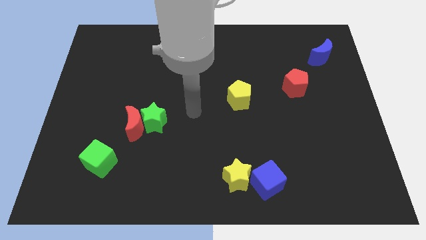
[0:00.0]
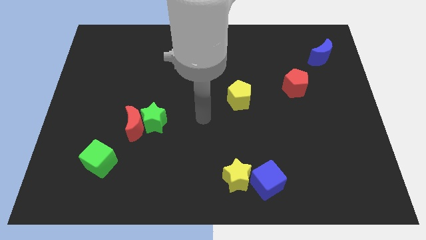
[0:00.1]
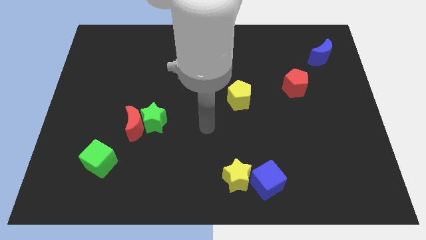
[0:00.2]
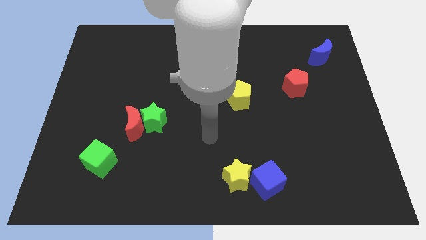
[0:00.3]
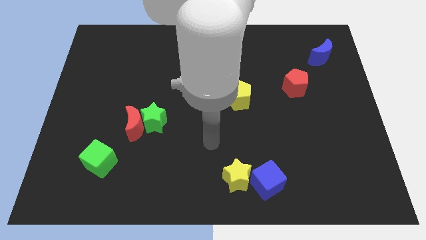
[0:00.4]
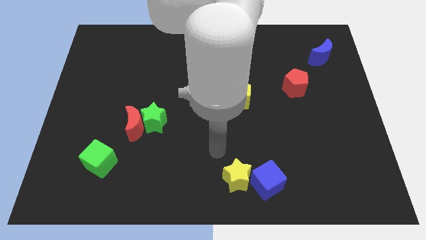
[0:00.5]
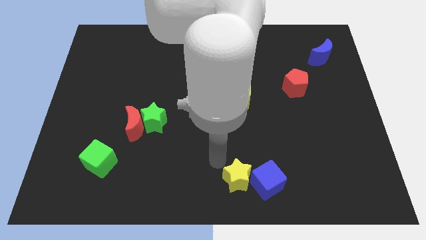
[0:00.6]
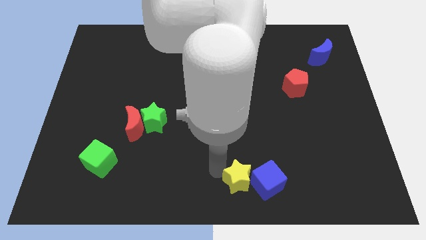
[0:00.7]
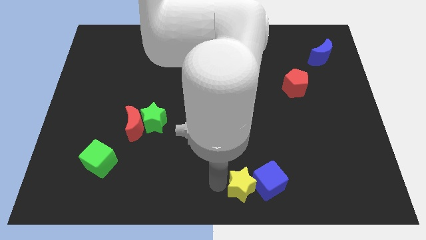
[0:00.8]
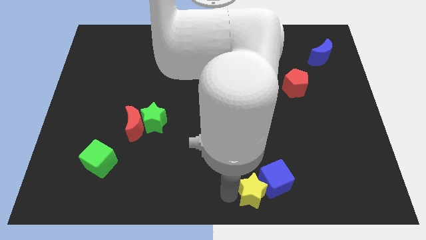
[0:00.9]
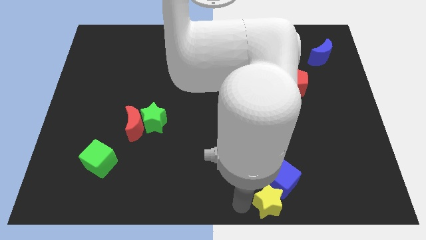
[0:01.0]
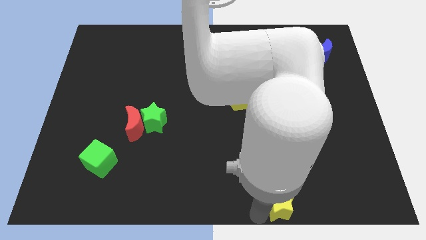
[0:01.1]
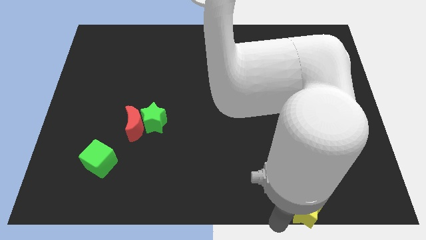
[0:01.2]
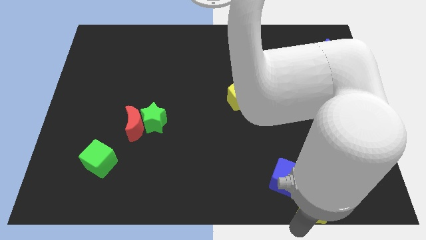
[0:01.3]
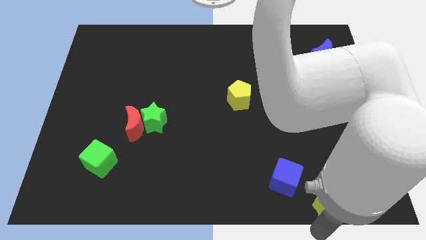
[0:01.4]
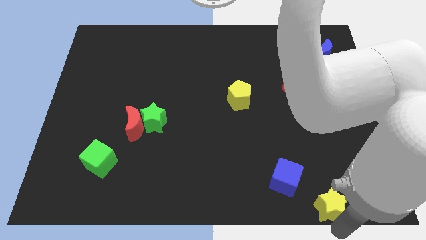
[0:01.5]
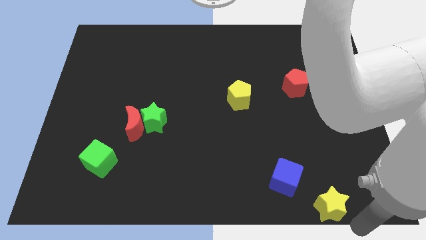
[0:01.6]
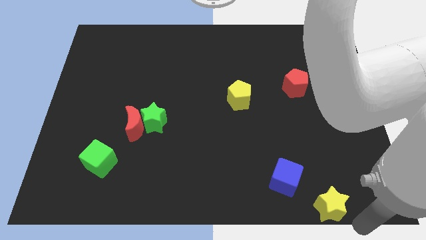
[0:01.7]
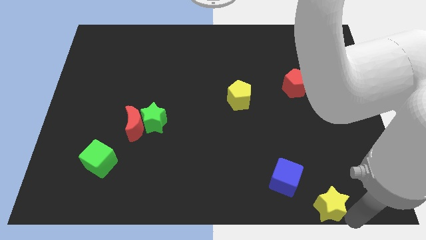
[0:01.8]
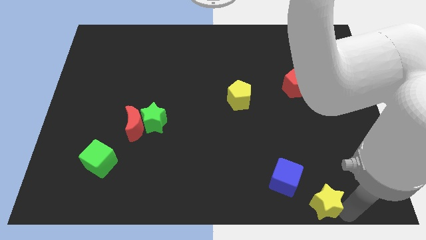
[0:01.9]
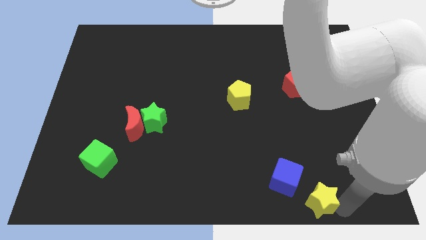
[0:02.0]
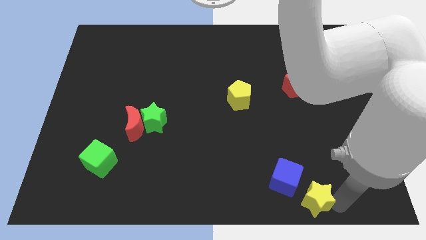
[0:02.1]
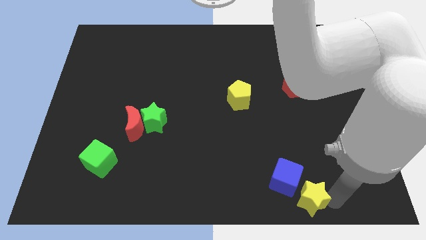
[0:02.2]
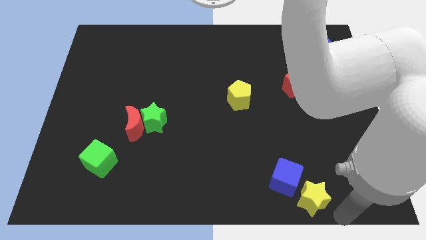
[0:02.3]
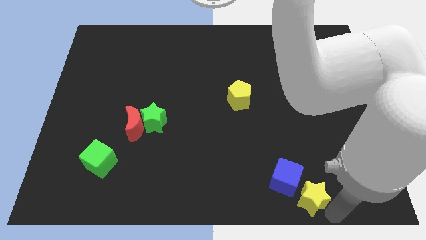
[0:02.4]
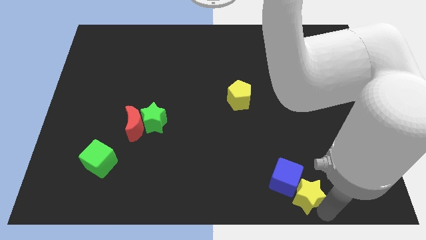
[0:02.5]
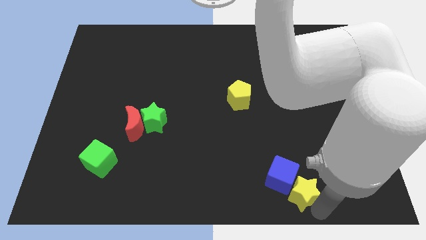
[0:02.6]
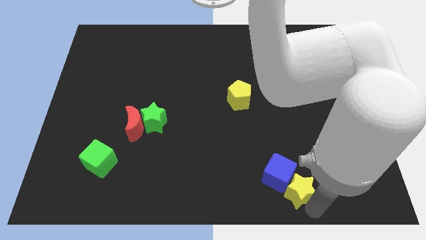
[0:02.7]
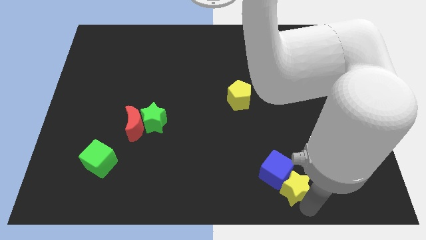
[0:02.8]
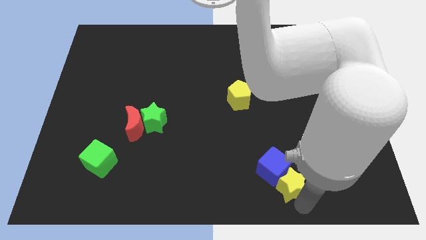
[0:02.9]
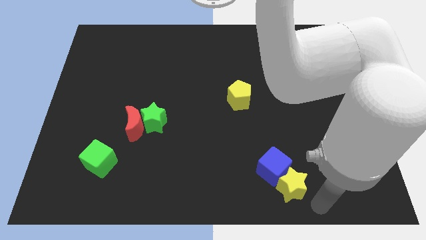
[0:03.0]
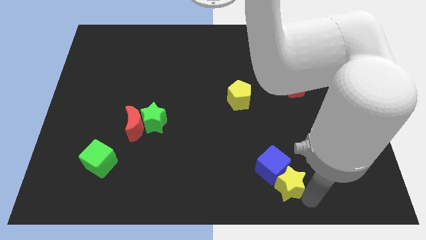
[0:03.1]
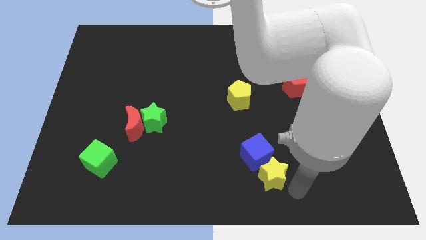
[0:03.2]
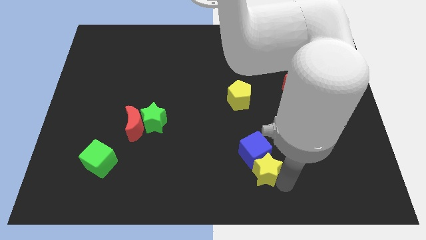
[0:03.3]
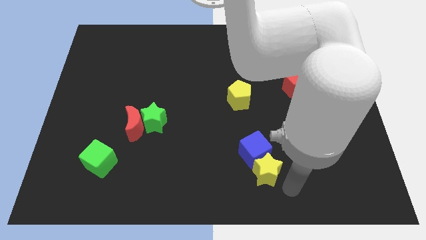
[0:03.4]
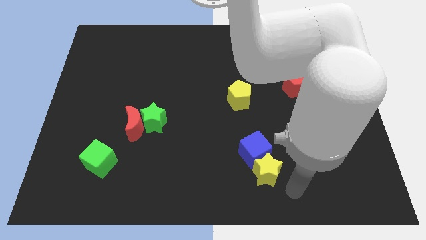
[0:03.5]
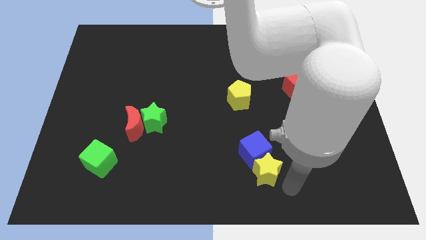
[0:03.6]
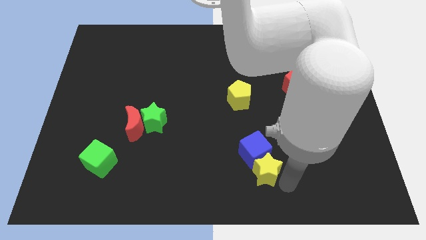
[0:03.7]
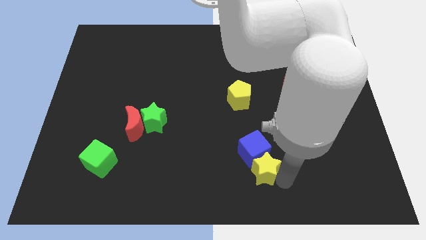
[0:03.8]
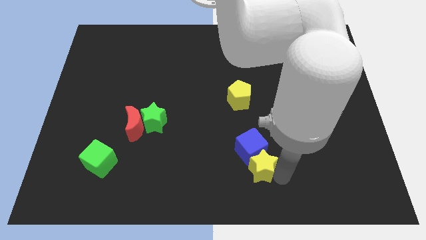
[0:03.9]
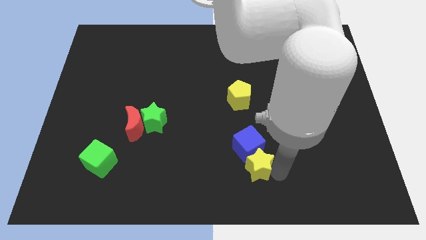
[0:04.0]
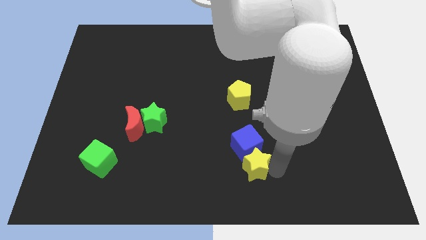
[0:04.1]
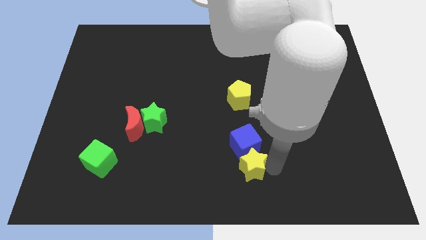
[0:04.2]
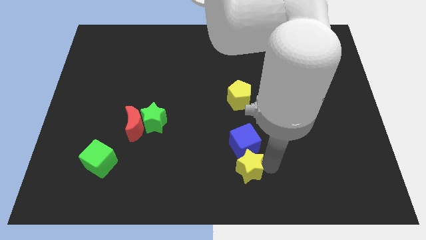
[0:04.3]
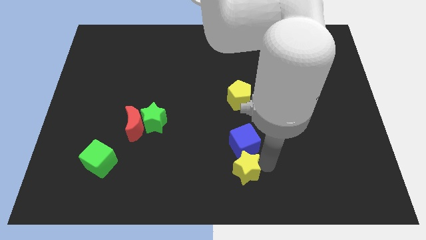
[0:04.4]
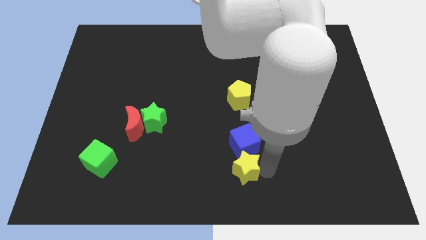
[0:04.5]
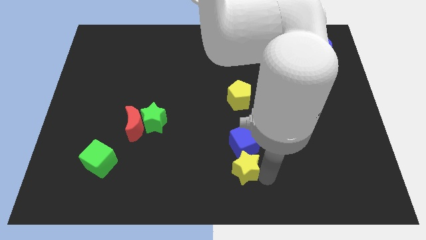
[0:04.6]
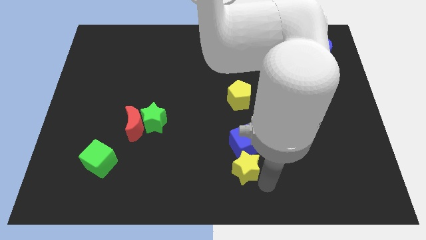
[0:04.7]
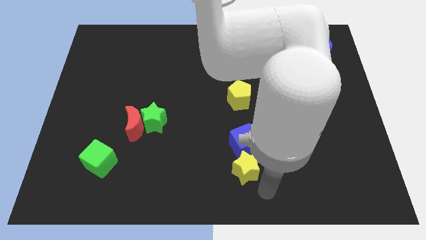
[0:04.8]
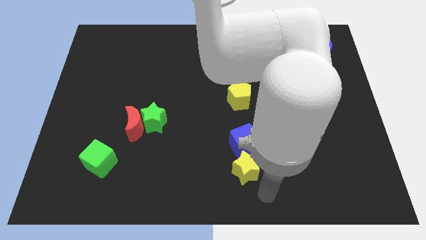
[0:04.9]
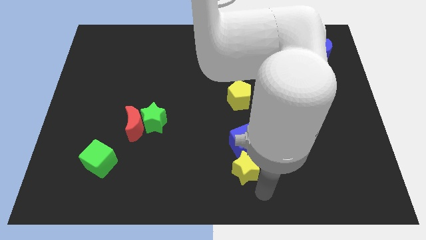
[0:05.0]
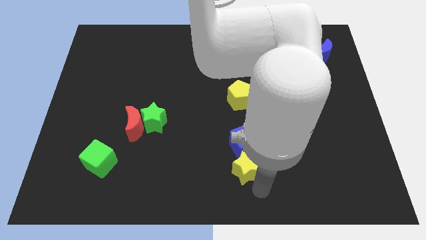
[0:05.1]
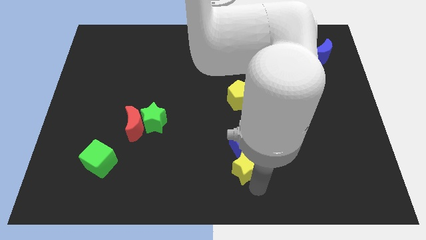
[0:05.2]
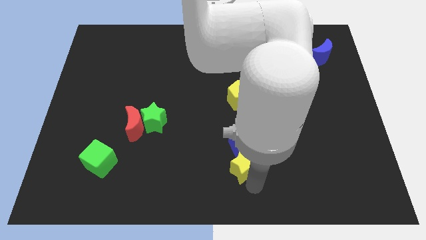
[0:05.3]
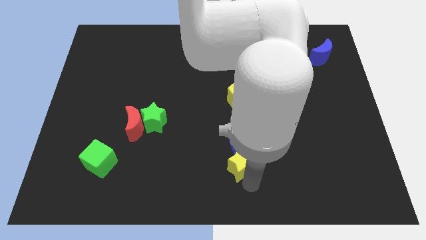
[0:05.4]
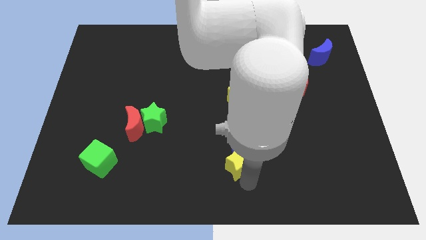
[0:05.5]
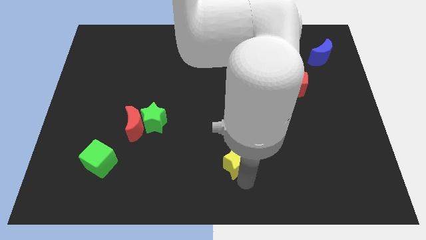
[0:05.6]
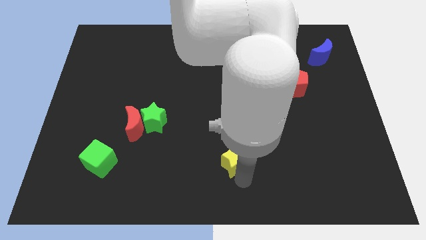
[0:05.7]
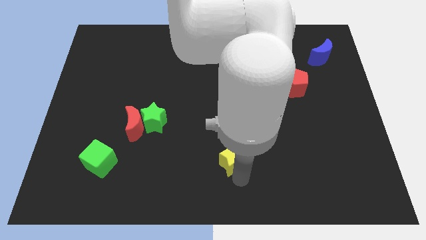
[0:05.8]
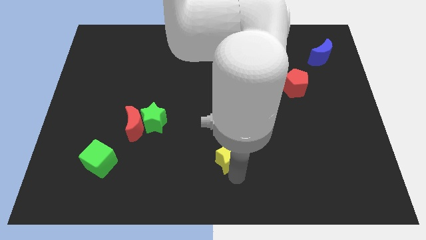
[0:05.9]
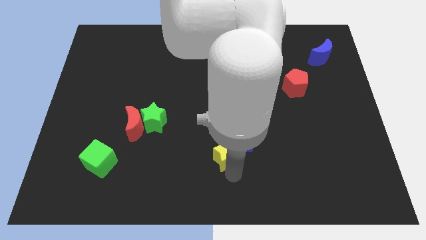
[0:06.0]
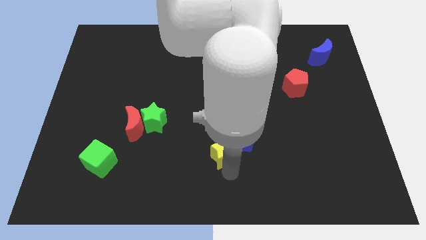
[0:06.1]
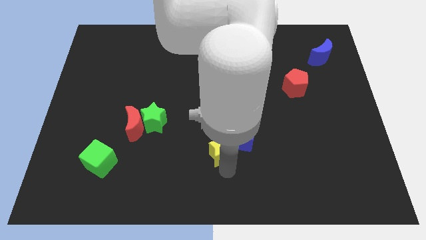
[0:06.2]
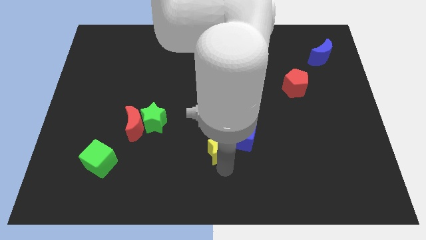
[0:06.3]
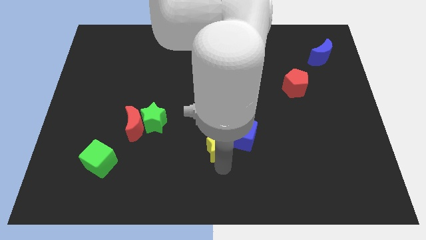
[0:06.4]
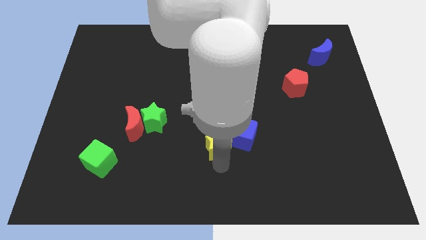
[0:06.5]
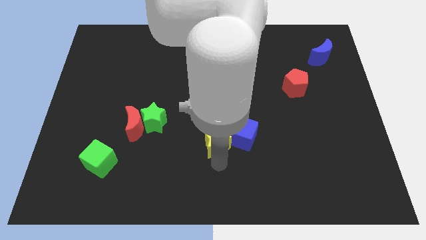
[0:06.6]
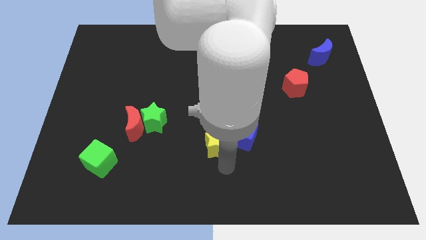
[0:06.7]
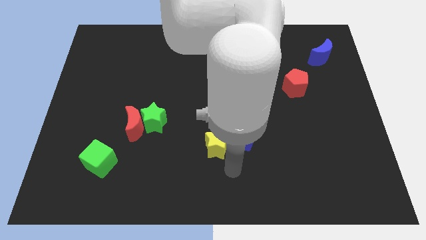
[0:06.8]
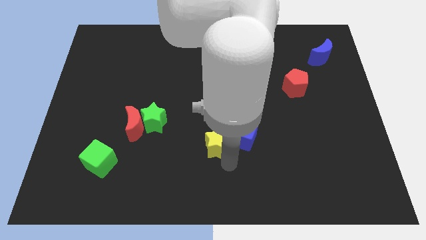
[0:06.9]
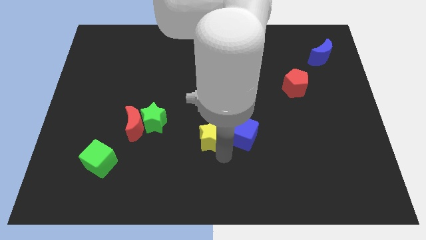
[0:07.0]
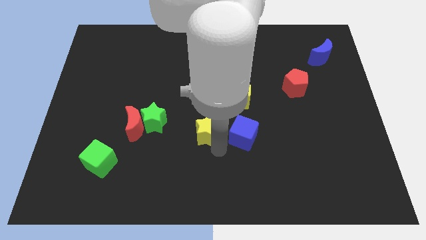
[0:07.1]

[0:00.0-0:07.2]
push the yellow star to the right side of the green star

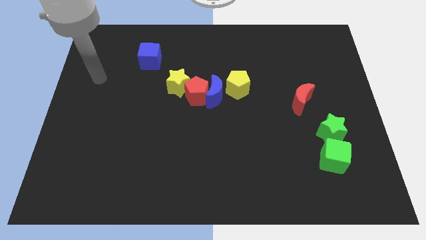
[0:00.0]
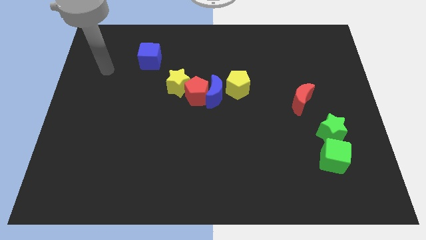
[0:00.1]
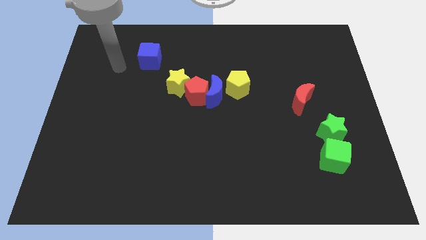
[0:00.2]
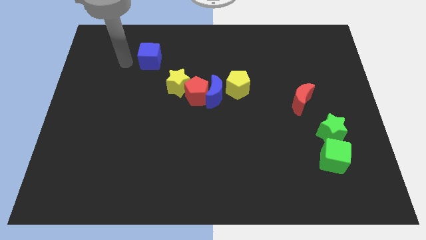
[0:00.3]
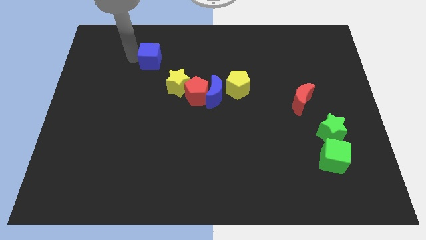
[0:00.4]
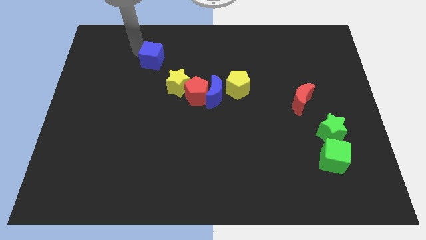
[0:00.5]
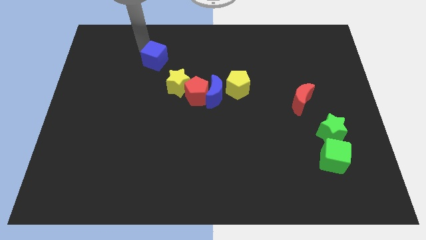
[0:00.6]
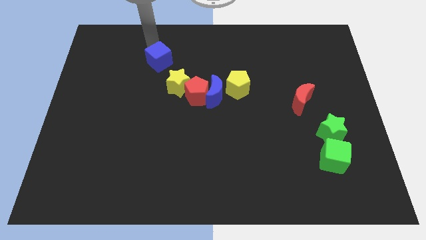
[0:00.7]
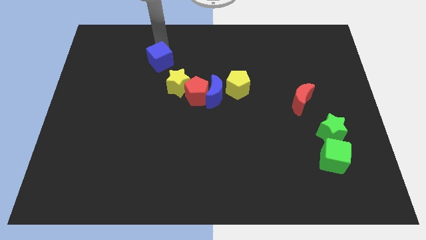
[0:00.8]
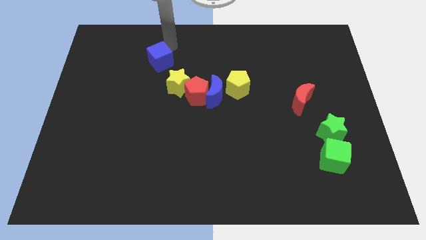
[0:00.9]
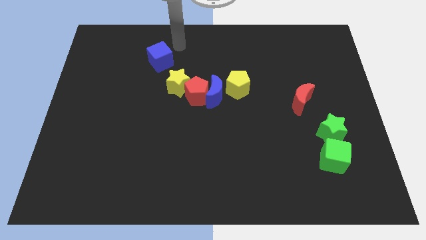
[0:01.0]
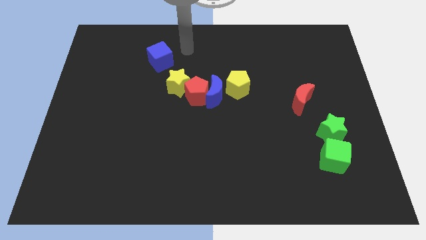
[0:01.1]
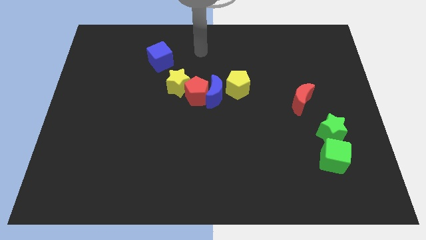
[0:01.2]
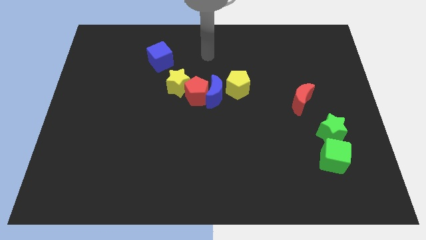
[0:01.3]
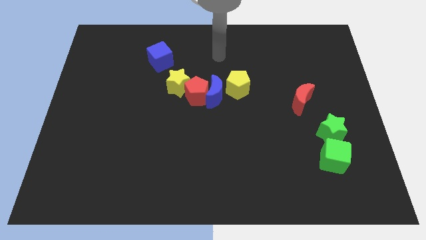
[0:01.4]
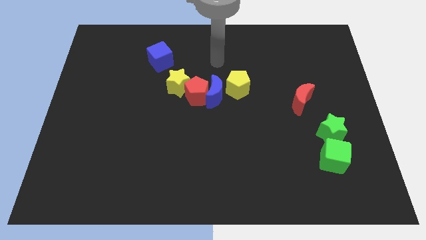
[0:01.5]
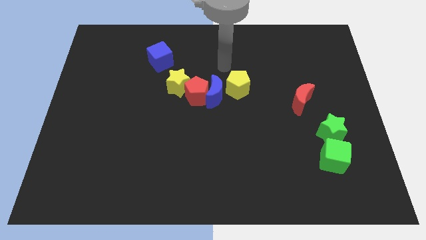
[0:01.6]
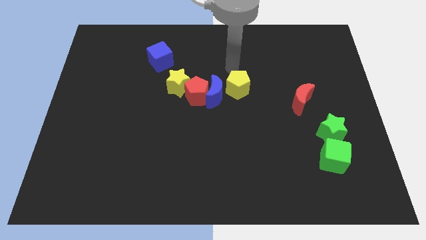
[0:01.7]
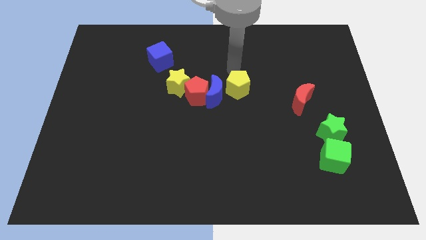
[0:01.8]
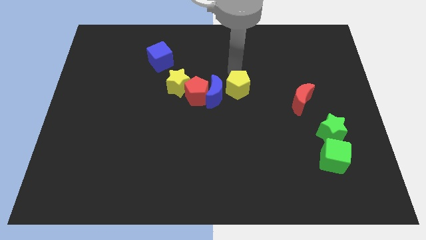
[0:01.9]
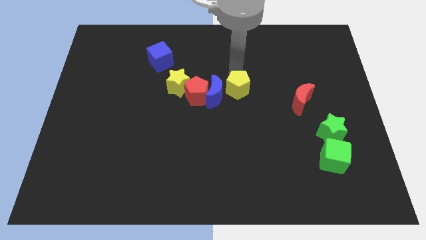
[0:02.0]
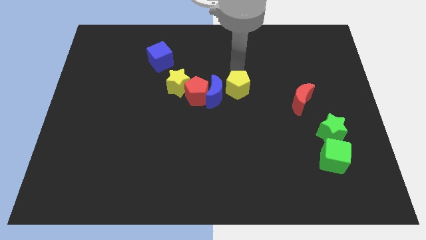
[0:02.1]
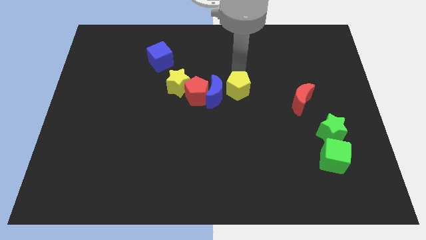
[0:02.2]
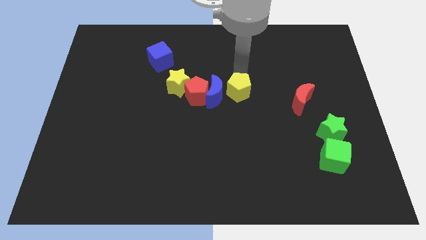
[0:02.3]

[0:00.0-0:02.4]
push the yellow pentagon to the bottom right of the blue moon
